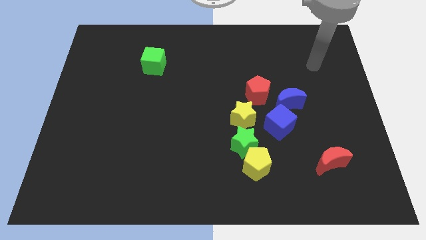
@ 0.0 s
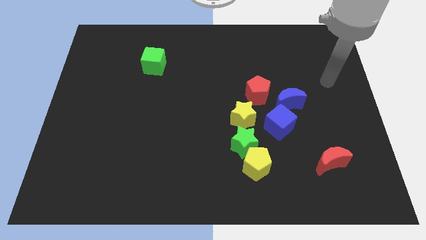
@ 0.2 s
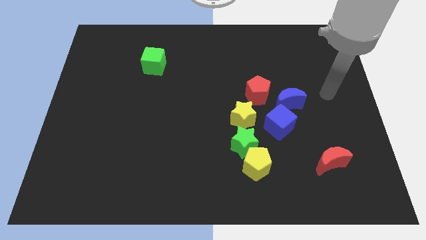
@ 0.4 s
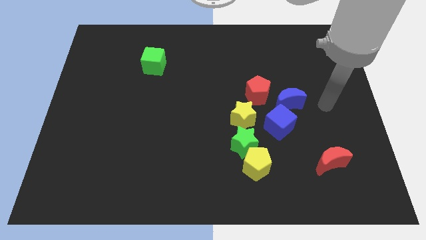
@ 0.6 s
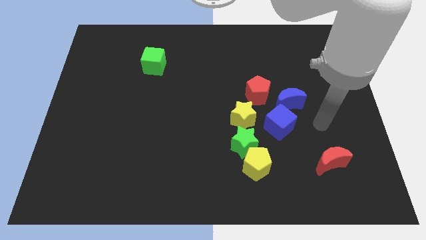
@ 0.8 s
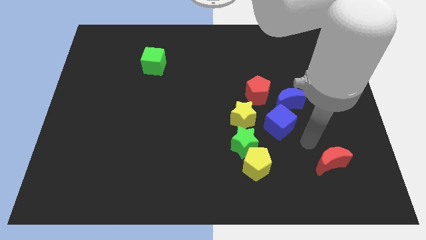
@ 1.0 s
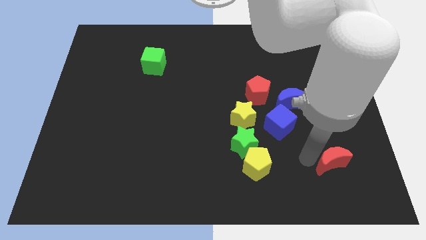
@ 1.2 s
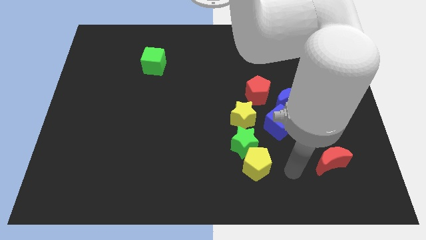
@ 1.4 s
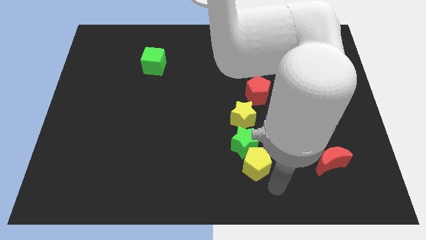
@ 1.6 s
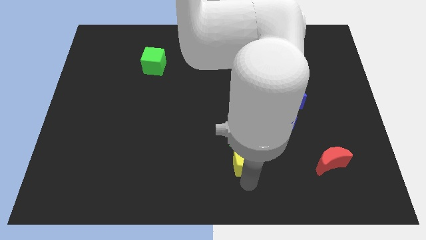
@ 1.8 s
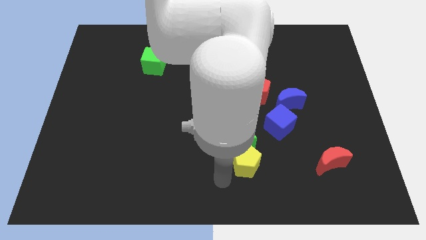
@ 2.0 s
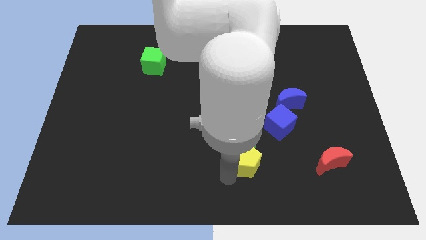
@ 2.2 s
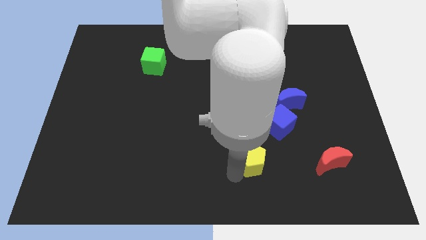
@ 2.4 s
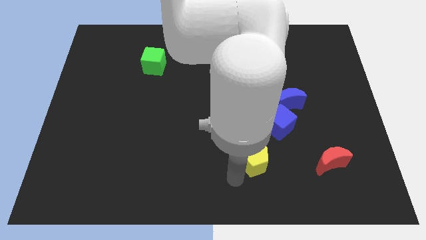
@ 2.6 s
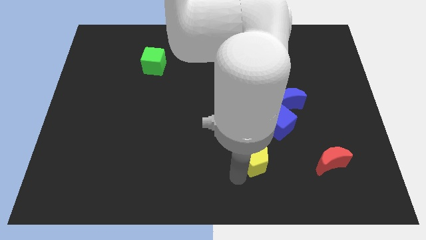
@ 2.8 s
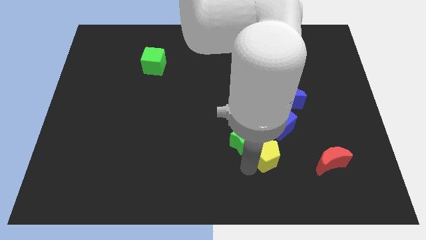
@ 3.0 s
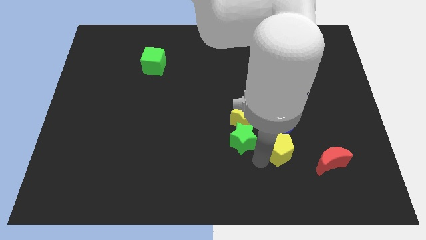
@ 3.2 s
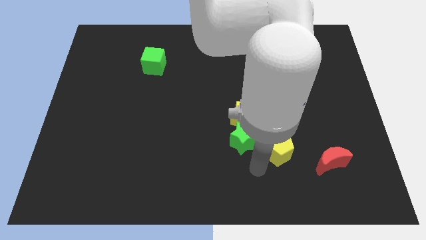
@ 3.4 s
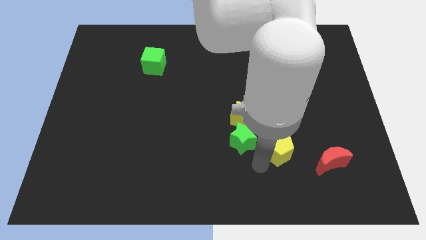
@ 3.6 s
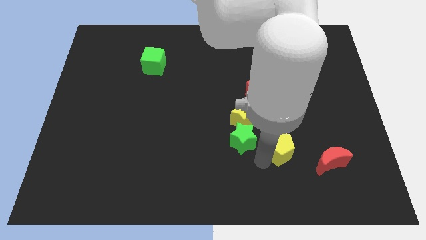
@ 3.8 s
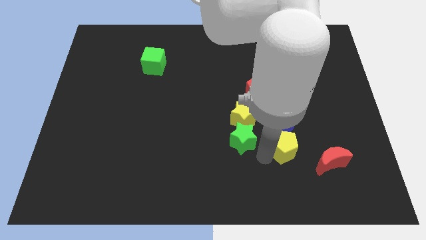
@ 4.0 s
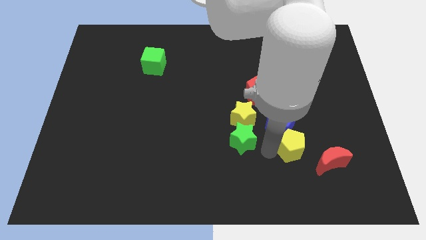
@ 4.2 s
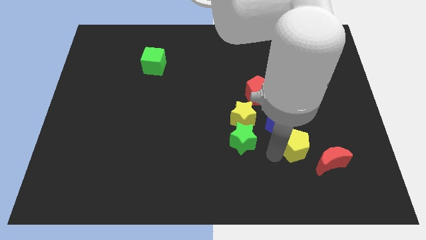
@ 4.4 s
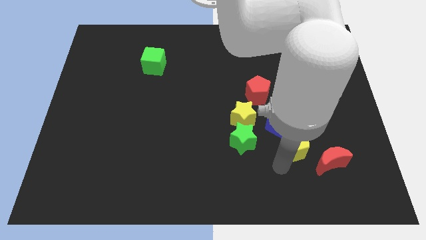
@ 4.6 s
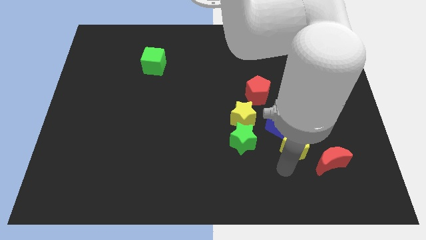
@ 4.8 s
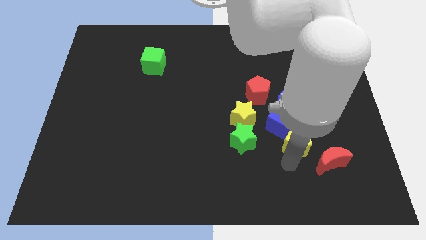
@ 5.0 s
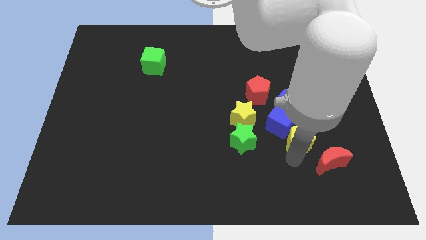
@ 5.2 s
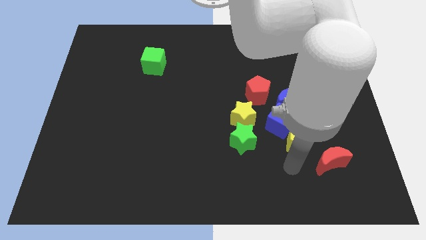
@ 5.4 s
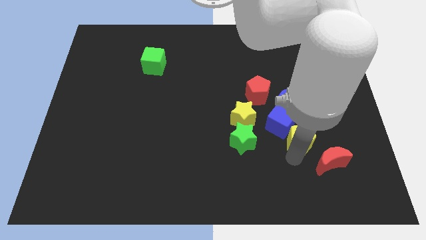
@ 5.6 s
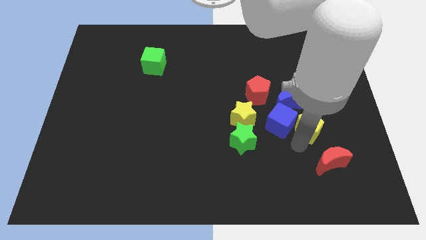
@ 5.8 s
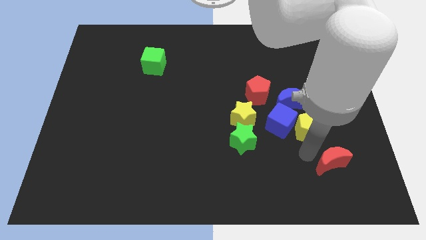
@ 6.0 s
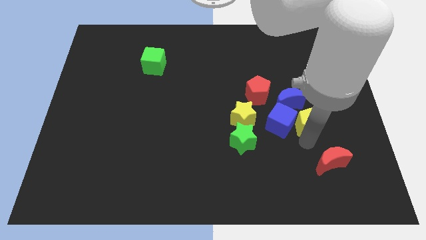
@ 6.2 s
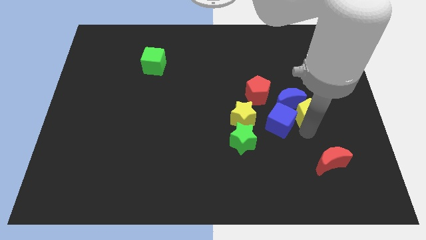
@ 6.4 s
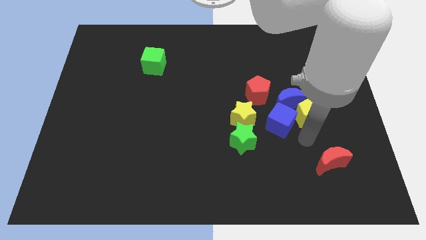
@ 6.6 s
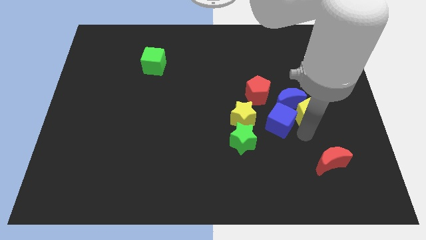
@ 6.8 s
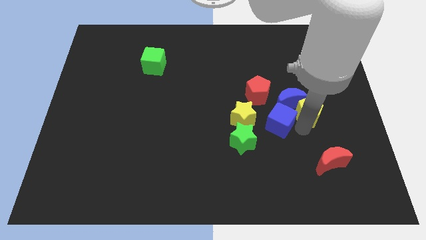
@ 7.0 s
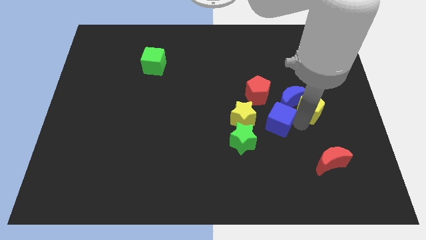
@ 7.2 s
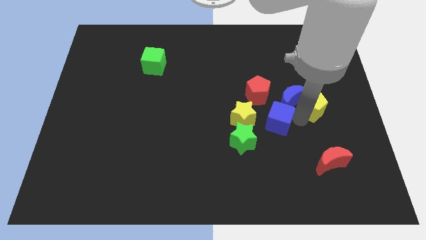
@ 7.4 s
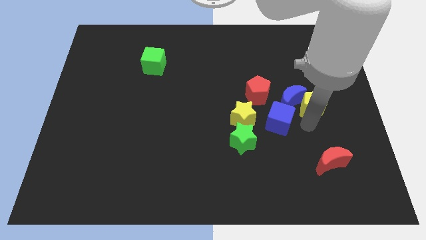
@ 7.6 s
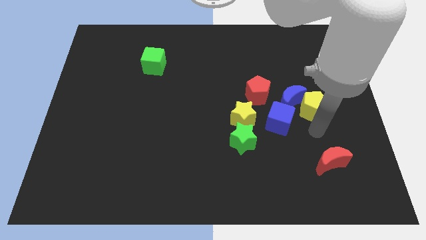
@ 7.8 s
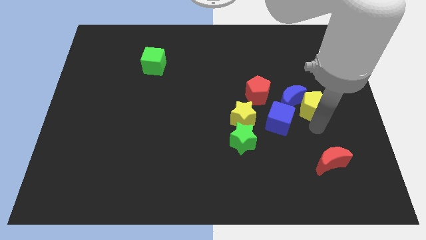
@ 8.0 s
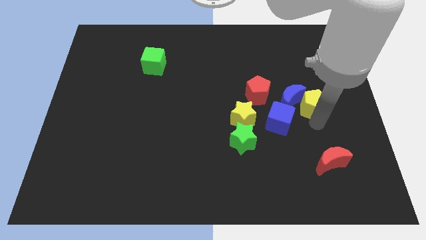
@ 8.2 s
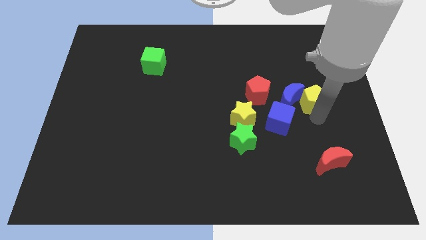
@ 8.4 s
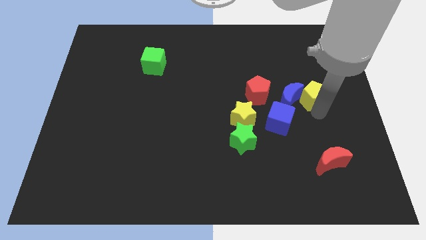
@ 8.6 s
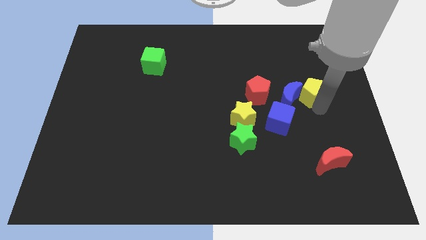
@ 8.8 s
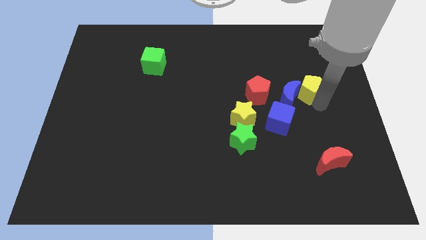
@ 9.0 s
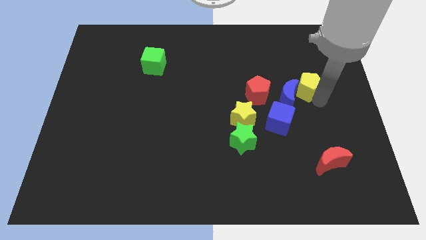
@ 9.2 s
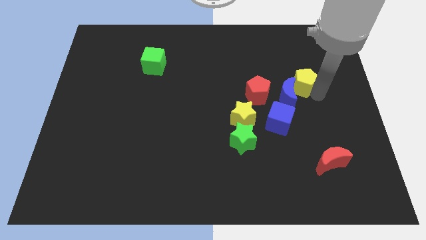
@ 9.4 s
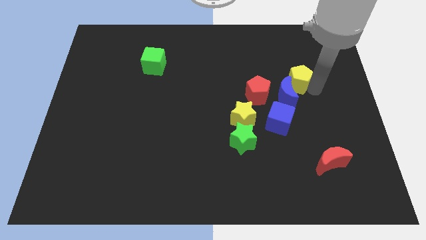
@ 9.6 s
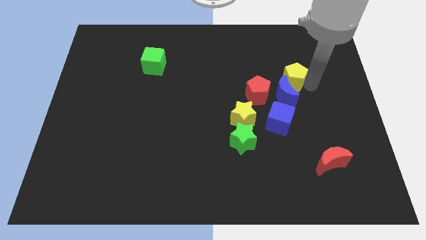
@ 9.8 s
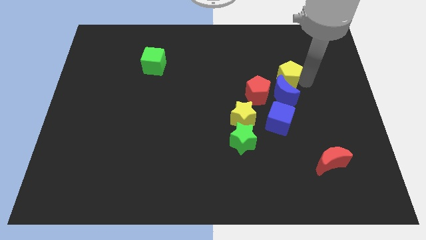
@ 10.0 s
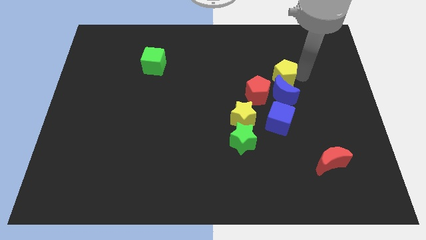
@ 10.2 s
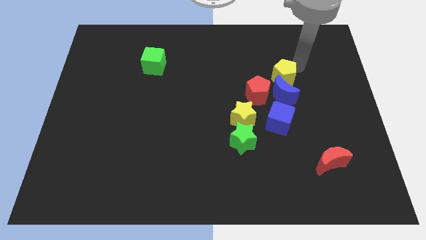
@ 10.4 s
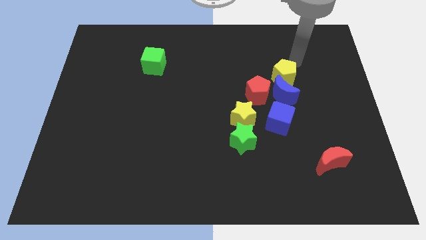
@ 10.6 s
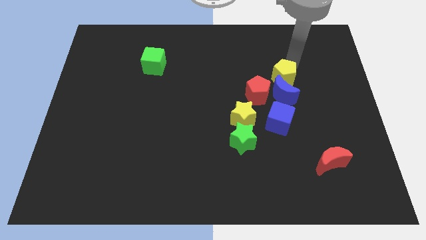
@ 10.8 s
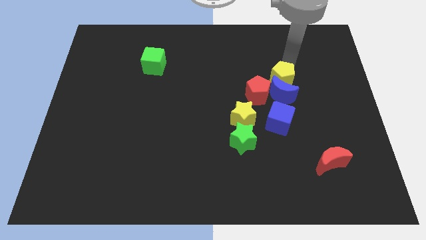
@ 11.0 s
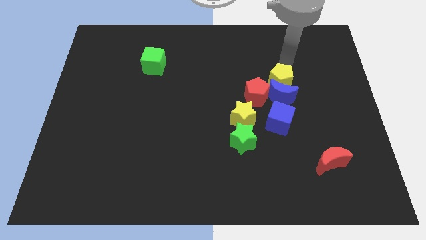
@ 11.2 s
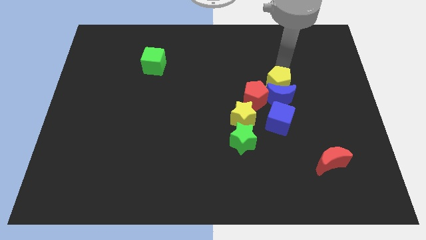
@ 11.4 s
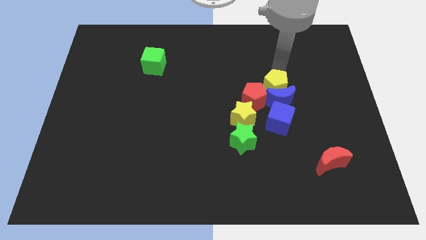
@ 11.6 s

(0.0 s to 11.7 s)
slide the yellow pentagon diagonally up and to the right of the yellow star

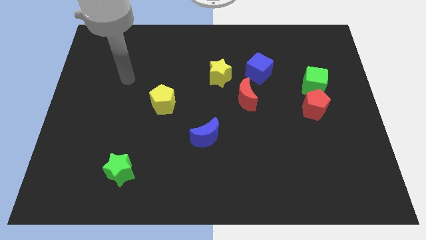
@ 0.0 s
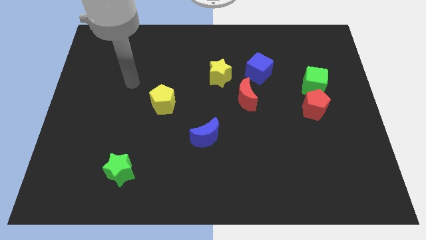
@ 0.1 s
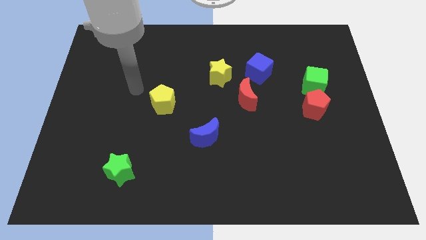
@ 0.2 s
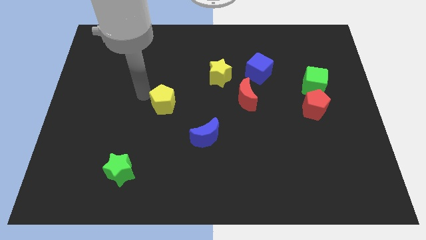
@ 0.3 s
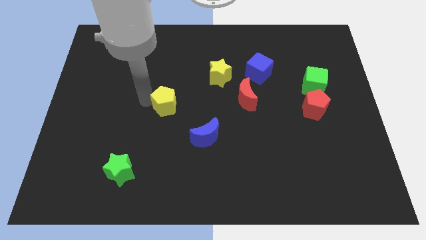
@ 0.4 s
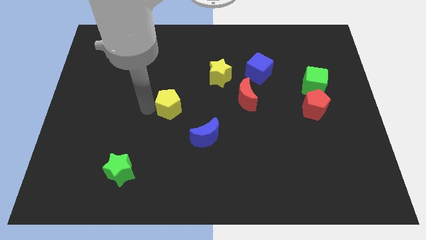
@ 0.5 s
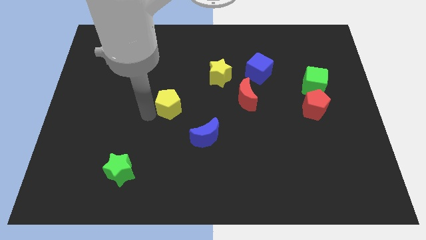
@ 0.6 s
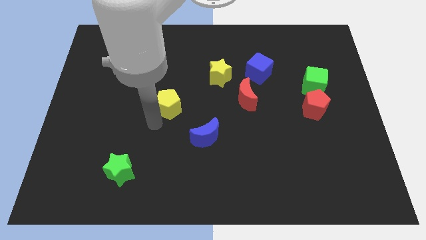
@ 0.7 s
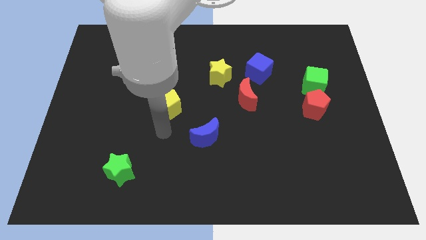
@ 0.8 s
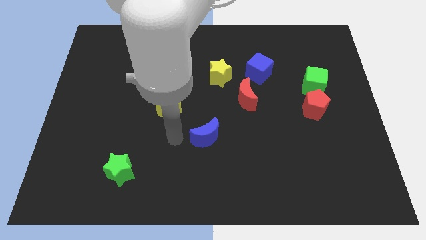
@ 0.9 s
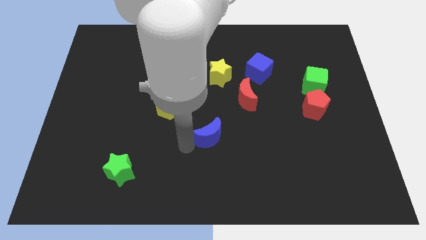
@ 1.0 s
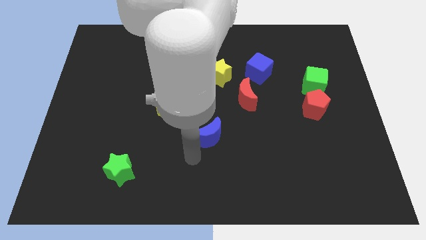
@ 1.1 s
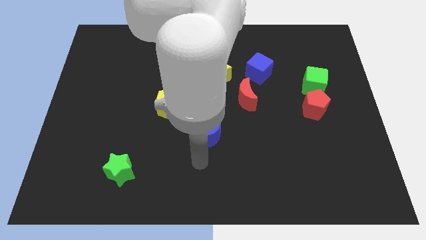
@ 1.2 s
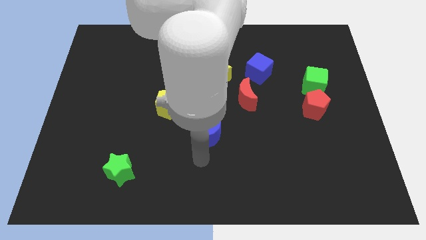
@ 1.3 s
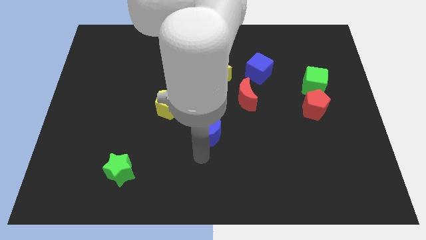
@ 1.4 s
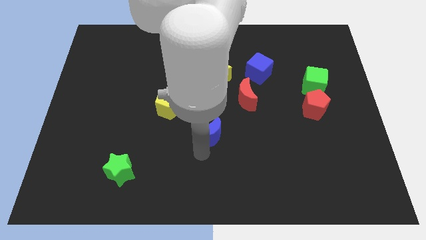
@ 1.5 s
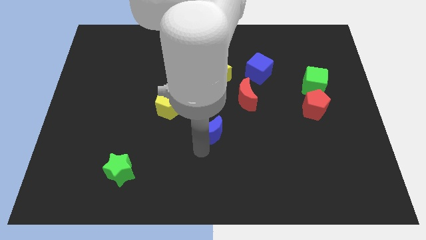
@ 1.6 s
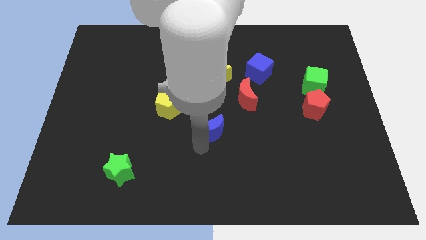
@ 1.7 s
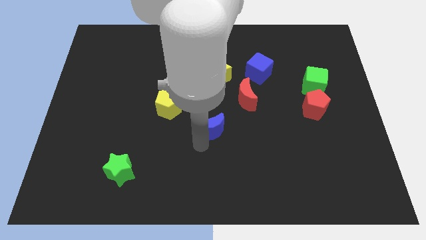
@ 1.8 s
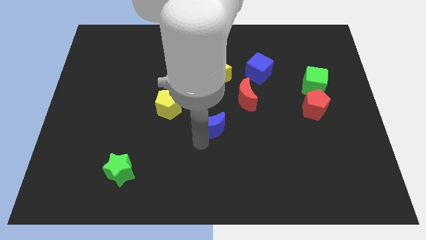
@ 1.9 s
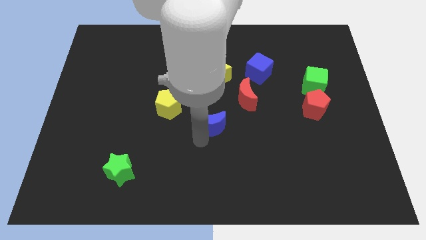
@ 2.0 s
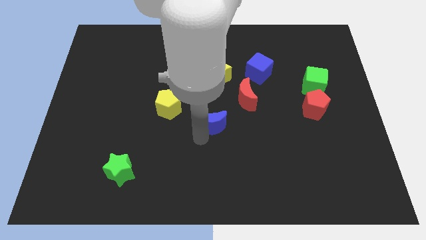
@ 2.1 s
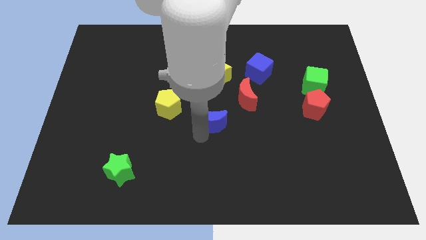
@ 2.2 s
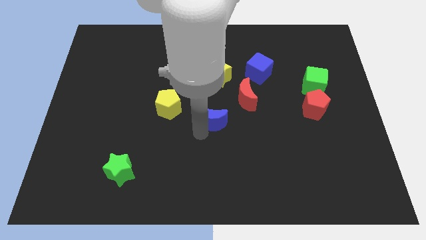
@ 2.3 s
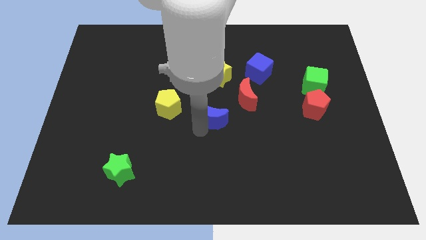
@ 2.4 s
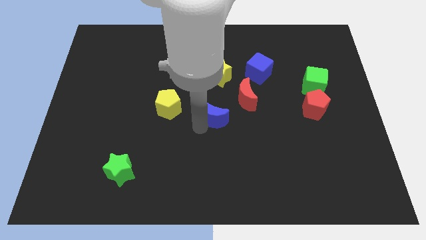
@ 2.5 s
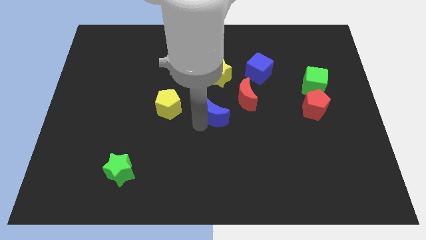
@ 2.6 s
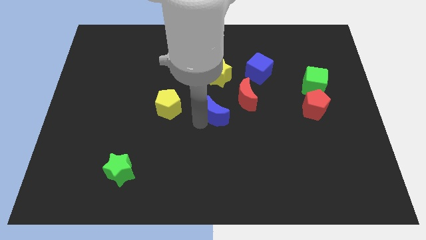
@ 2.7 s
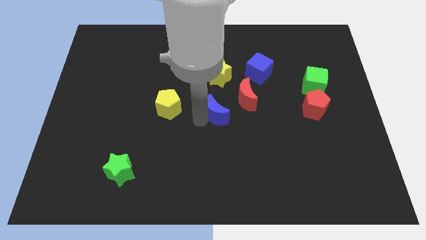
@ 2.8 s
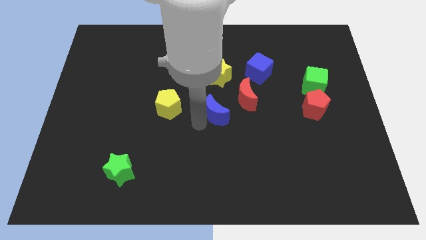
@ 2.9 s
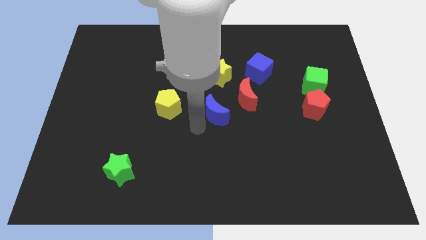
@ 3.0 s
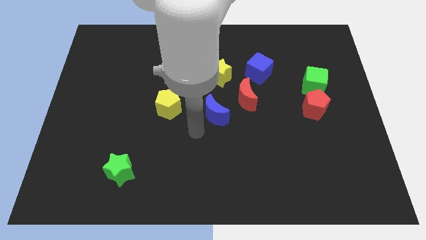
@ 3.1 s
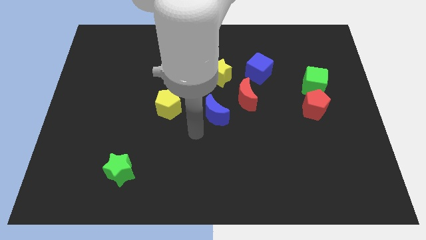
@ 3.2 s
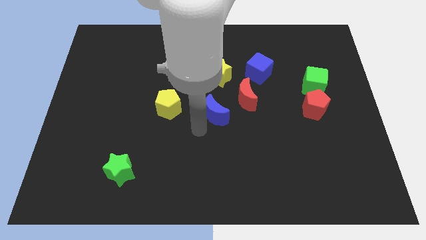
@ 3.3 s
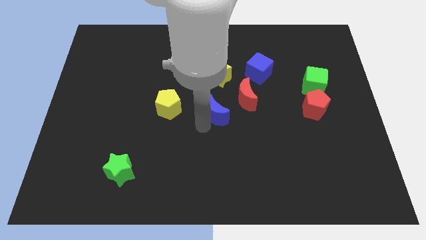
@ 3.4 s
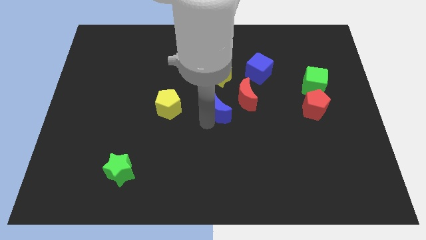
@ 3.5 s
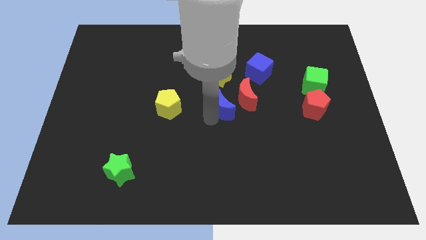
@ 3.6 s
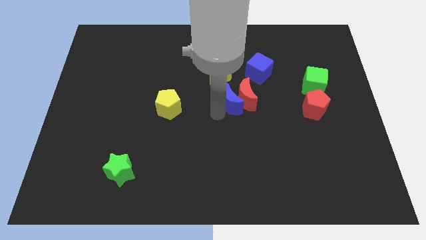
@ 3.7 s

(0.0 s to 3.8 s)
slide the blue moon diagonally down and to the left of the blue cube
